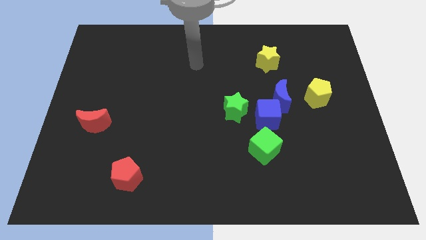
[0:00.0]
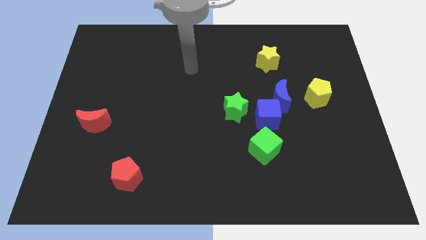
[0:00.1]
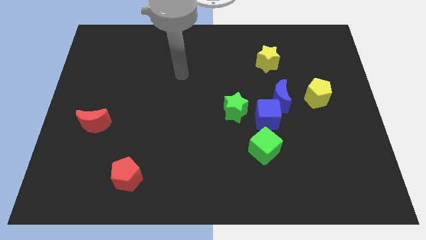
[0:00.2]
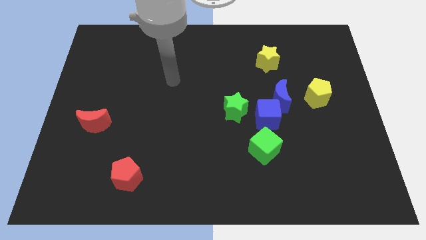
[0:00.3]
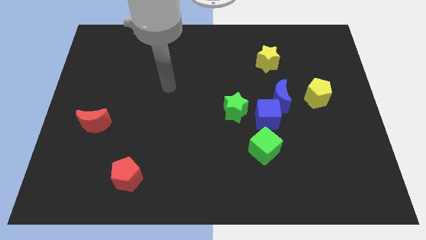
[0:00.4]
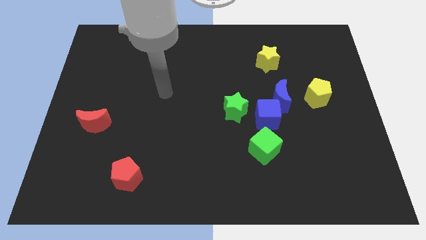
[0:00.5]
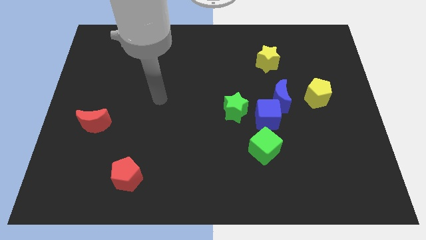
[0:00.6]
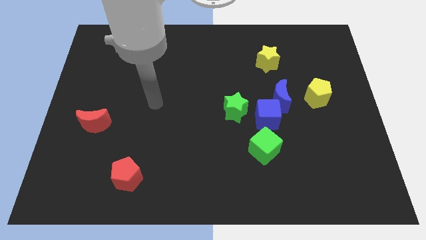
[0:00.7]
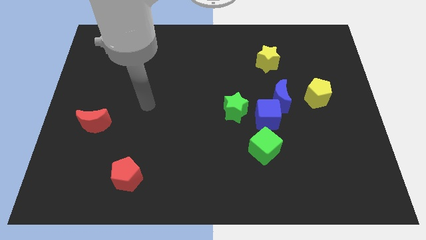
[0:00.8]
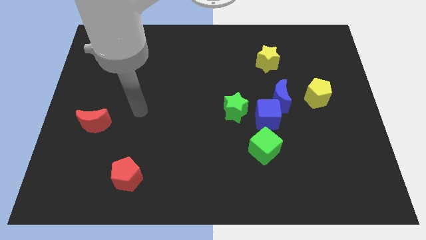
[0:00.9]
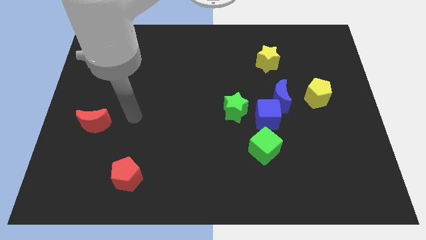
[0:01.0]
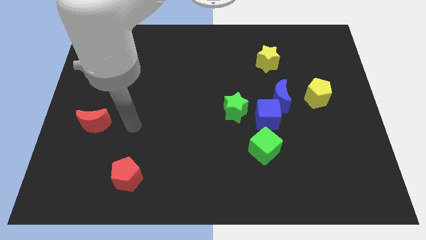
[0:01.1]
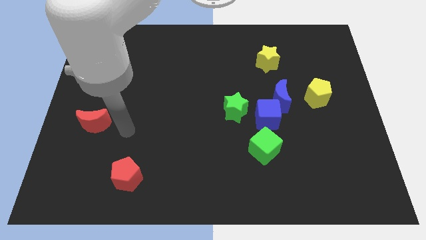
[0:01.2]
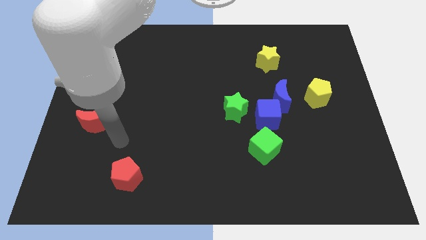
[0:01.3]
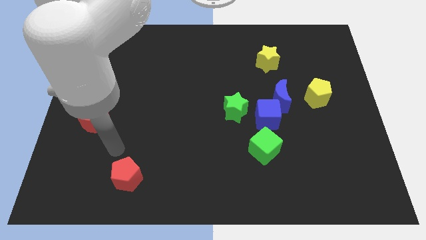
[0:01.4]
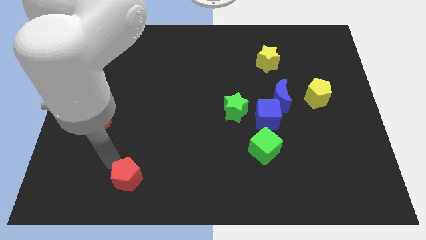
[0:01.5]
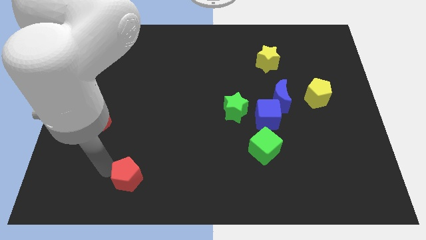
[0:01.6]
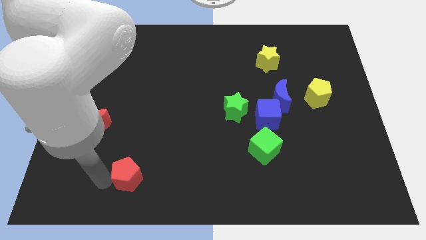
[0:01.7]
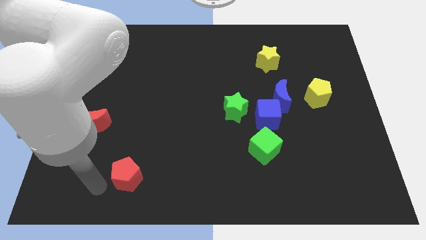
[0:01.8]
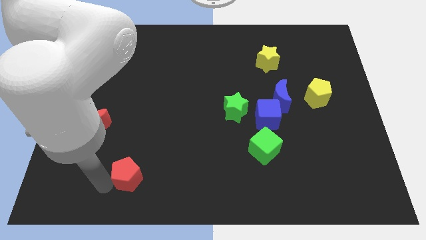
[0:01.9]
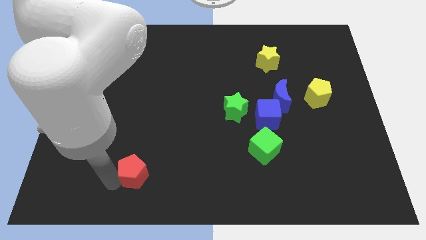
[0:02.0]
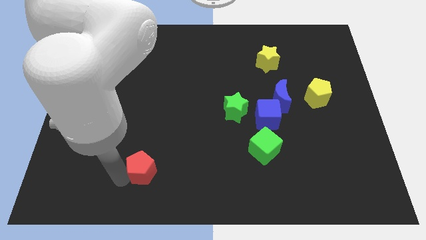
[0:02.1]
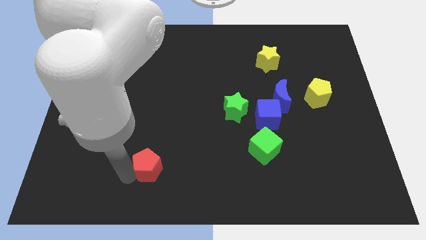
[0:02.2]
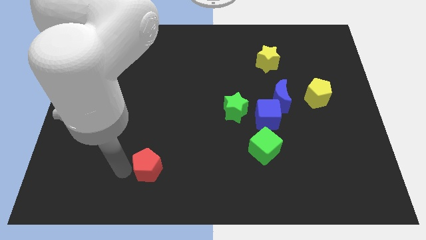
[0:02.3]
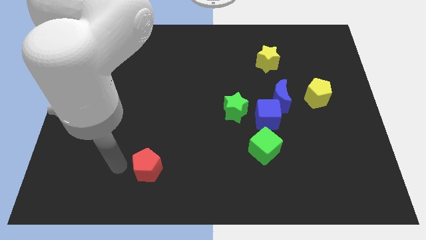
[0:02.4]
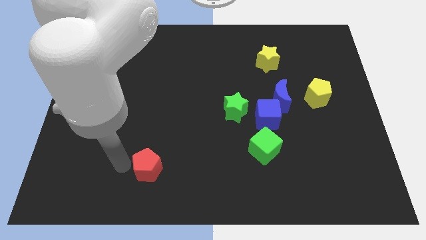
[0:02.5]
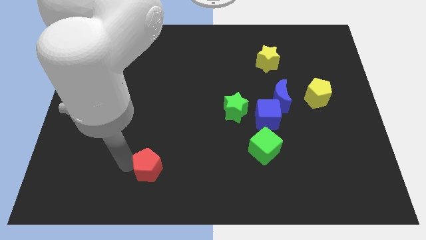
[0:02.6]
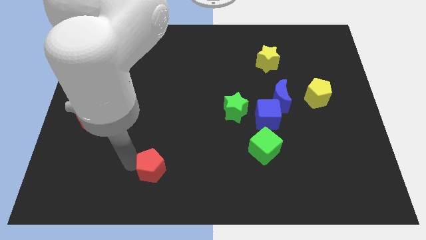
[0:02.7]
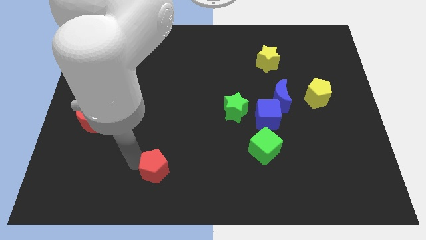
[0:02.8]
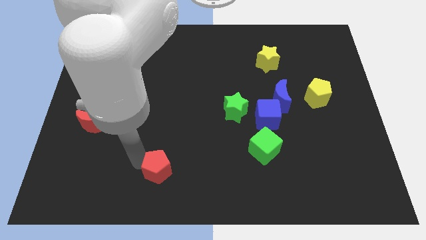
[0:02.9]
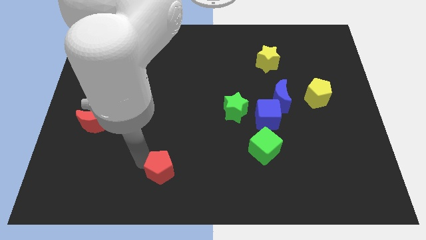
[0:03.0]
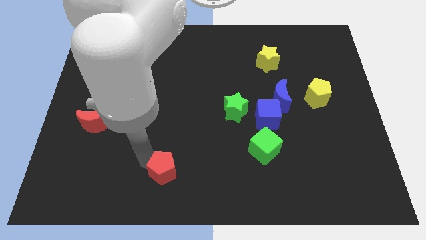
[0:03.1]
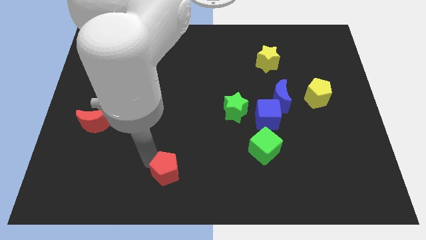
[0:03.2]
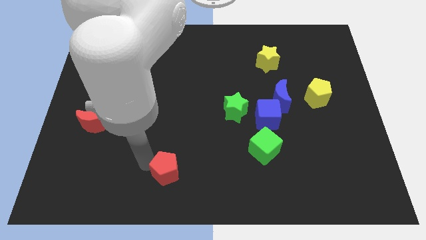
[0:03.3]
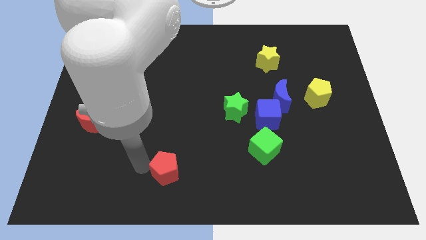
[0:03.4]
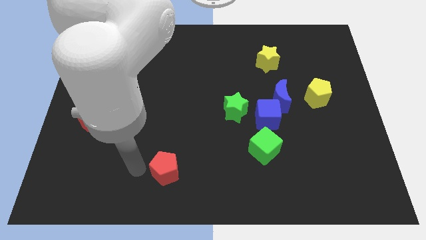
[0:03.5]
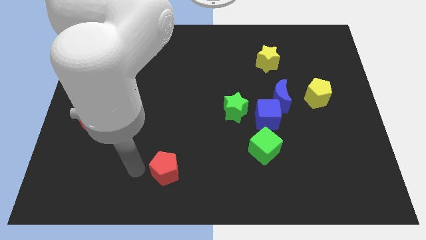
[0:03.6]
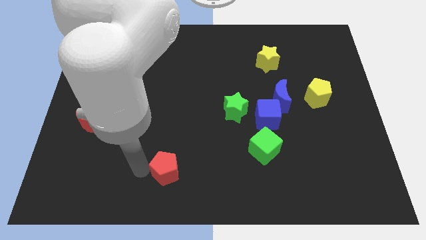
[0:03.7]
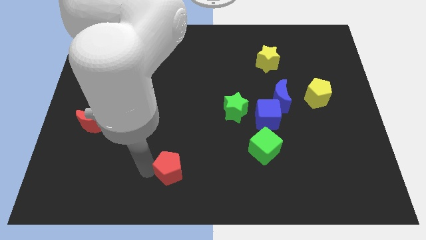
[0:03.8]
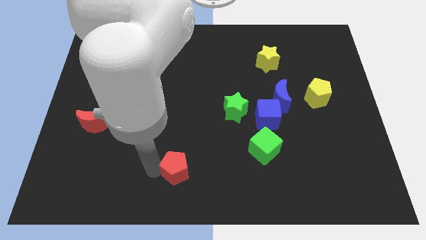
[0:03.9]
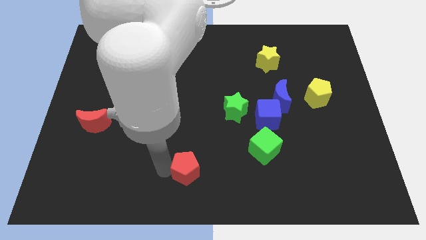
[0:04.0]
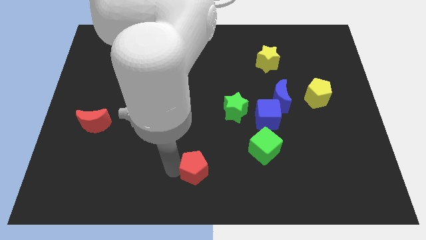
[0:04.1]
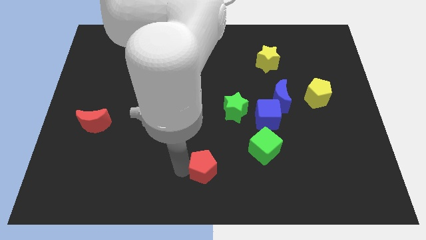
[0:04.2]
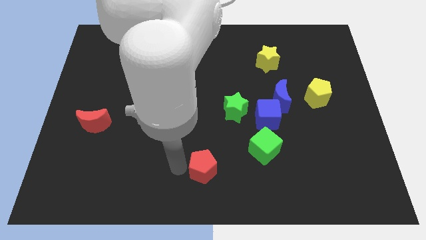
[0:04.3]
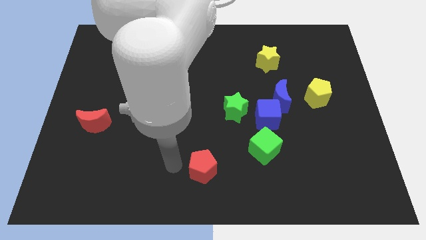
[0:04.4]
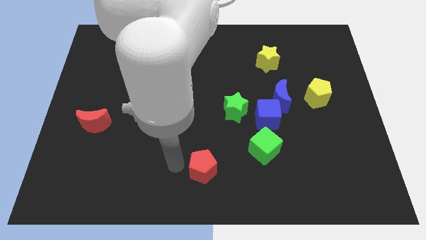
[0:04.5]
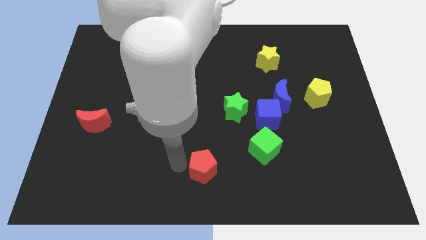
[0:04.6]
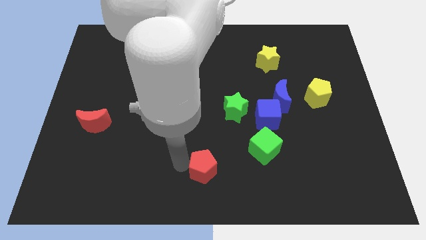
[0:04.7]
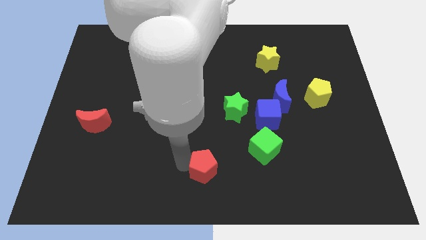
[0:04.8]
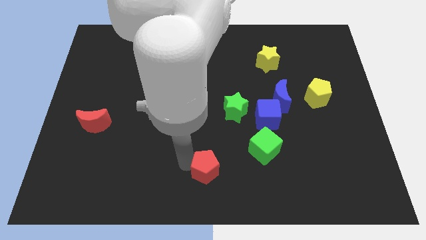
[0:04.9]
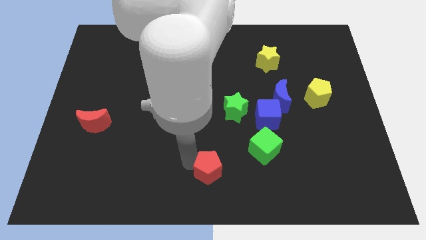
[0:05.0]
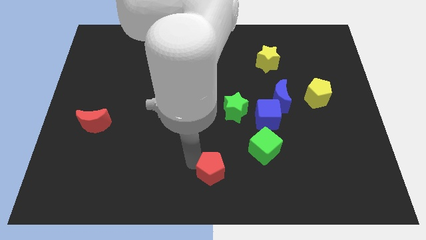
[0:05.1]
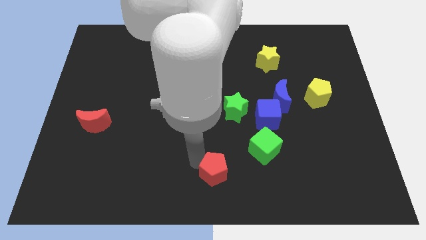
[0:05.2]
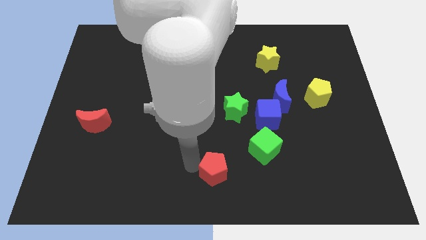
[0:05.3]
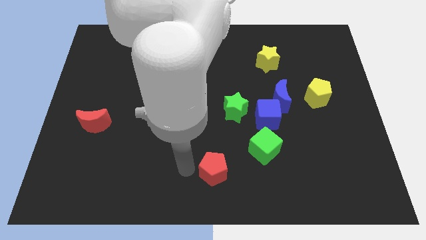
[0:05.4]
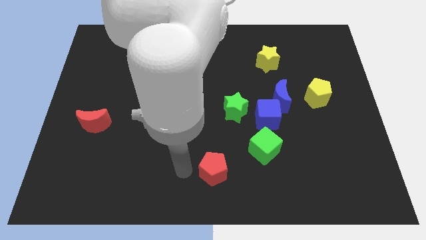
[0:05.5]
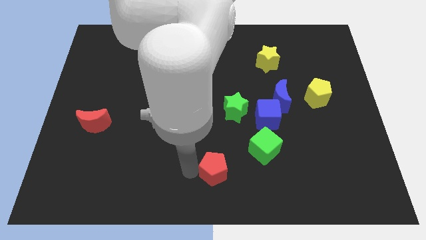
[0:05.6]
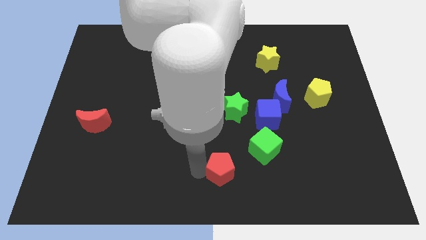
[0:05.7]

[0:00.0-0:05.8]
push the red pentagon to the bottom left of the green cube

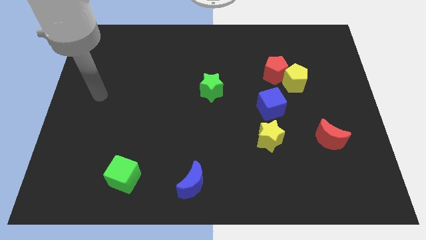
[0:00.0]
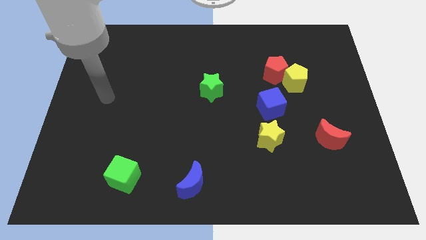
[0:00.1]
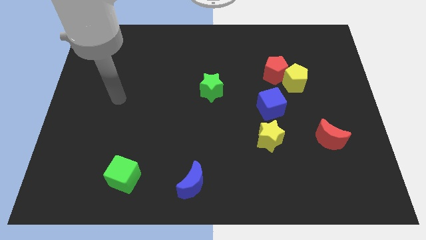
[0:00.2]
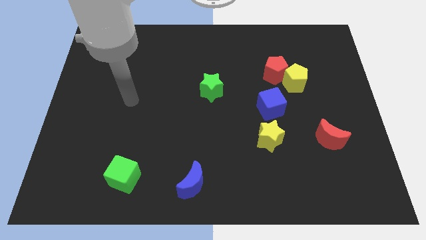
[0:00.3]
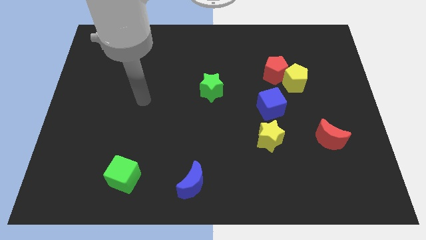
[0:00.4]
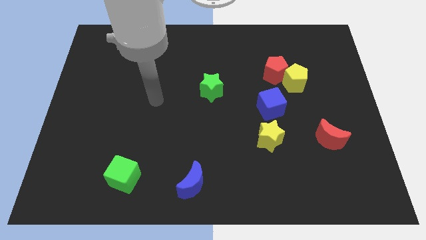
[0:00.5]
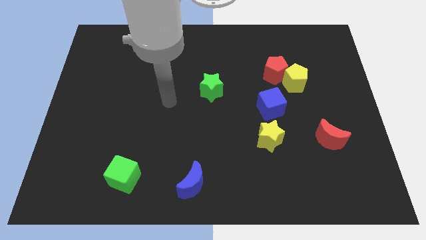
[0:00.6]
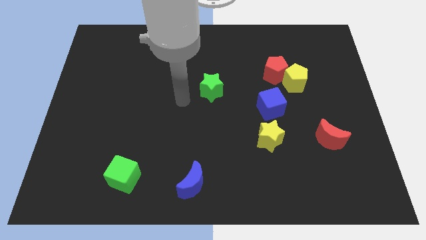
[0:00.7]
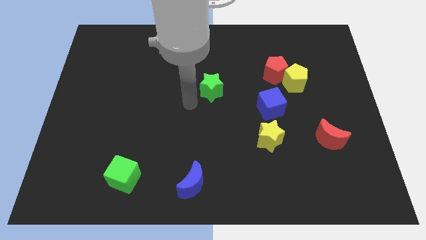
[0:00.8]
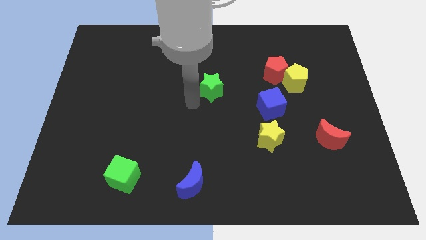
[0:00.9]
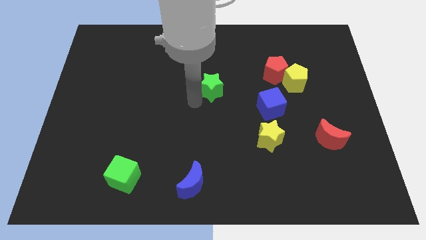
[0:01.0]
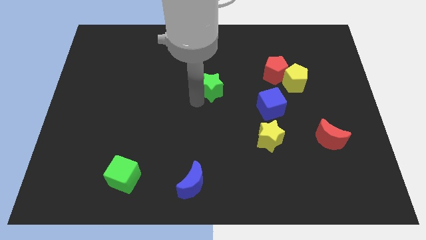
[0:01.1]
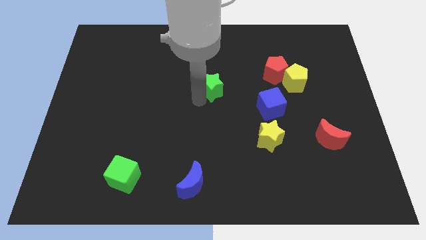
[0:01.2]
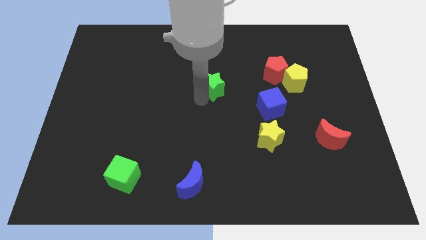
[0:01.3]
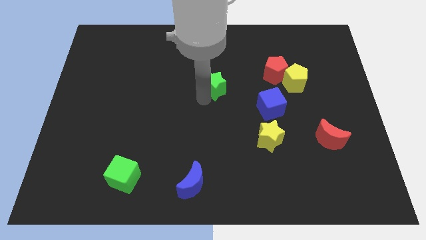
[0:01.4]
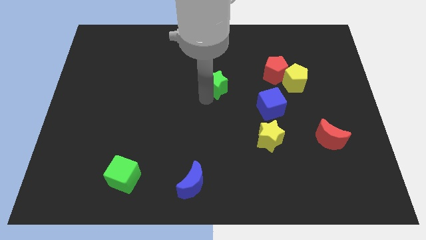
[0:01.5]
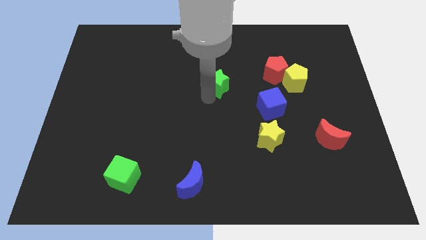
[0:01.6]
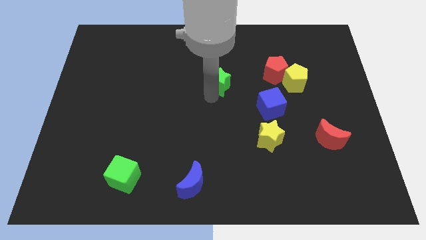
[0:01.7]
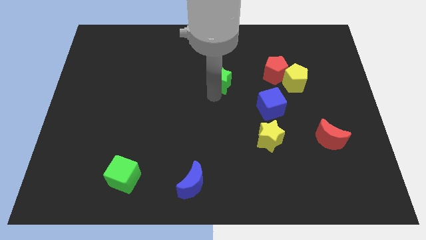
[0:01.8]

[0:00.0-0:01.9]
push the green star to the left side of the red pentagon

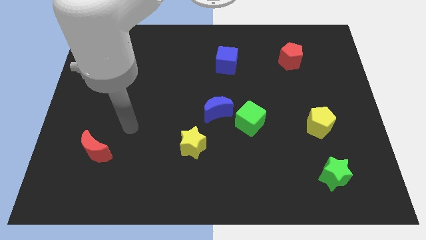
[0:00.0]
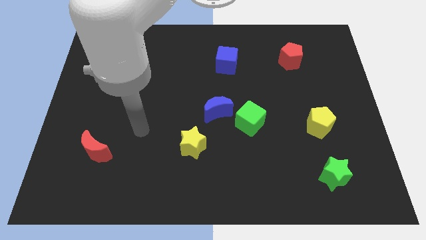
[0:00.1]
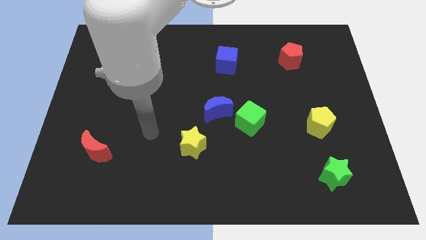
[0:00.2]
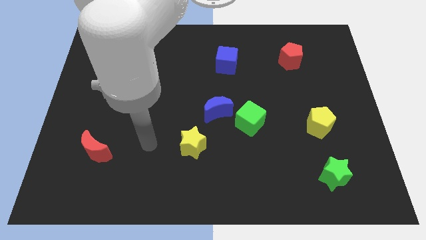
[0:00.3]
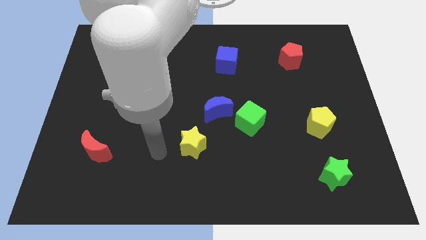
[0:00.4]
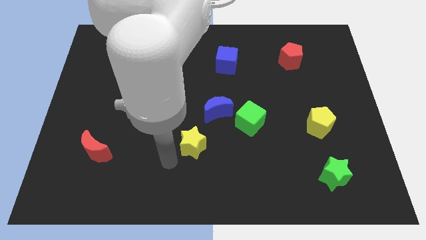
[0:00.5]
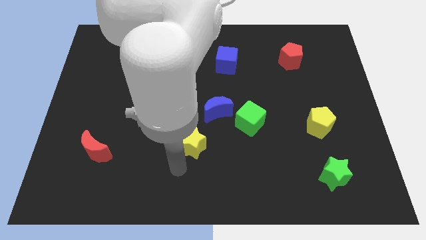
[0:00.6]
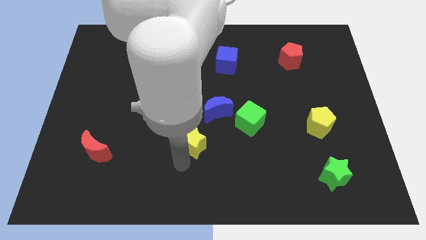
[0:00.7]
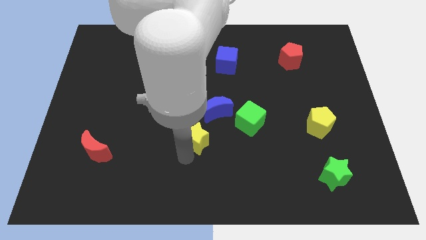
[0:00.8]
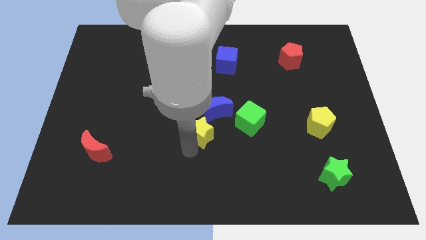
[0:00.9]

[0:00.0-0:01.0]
put the yellow star just left of the green cube
